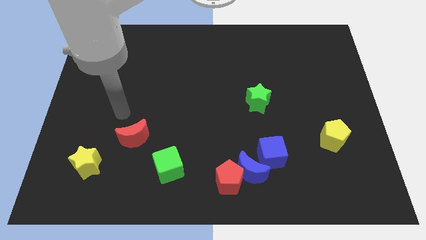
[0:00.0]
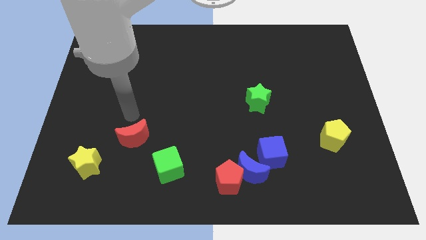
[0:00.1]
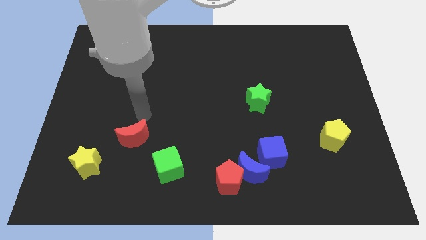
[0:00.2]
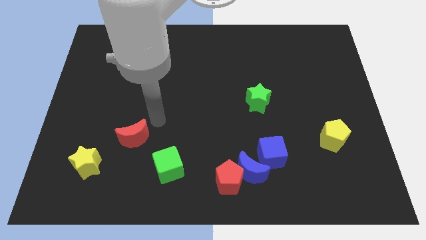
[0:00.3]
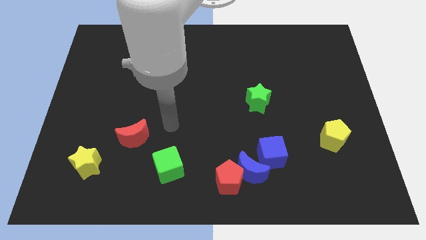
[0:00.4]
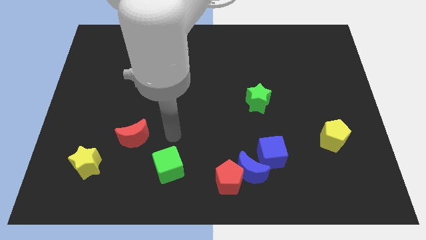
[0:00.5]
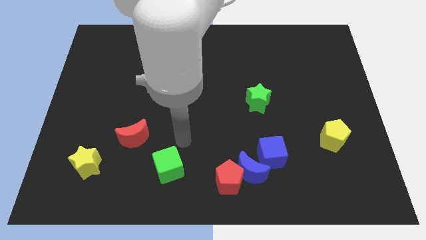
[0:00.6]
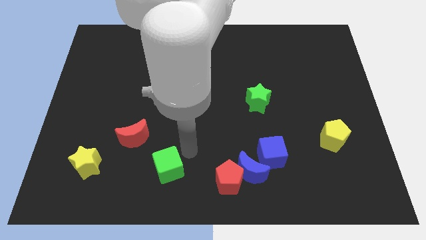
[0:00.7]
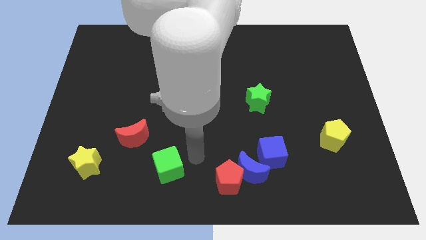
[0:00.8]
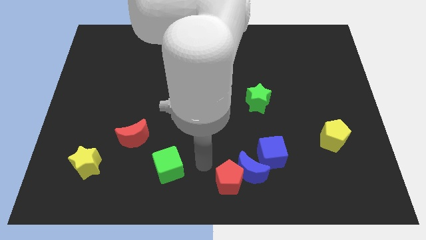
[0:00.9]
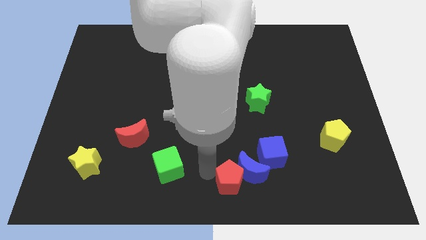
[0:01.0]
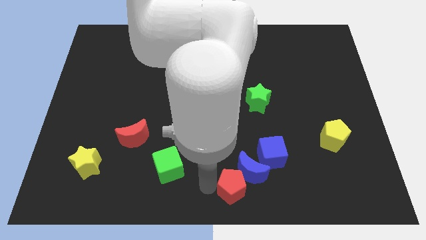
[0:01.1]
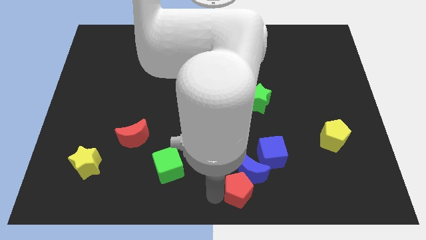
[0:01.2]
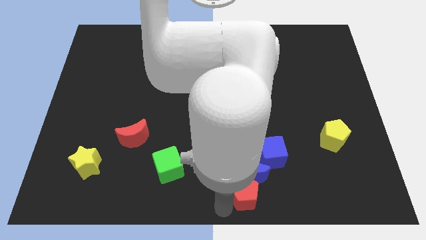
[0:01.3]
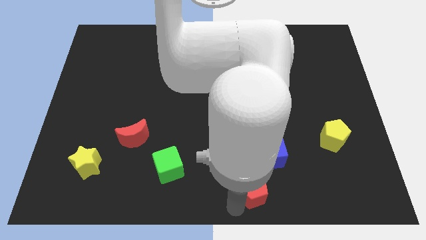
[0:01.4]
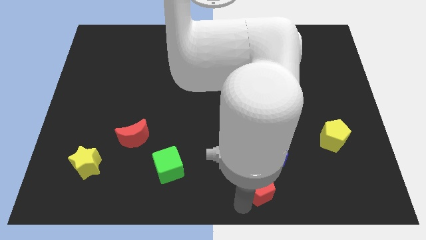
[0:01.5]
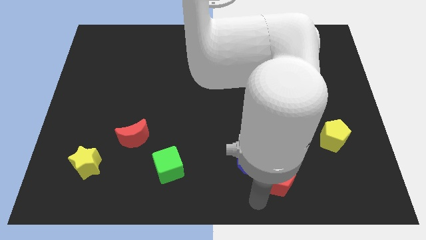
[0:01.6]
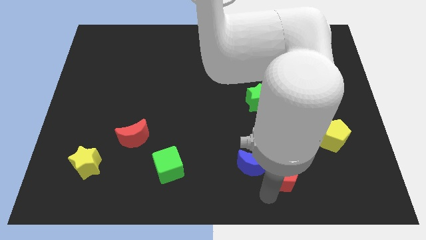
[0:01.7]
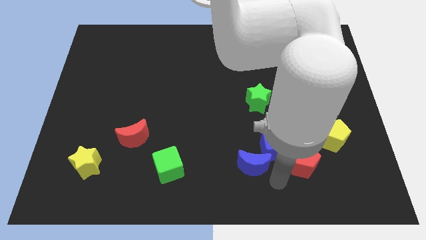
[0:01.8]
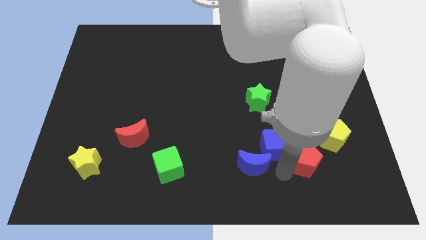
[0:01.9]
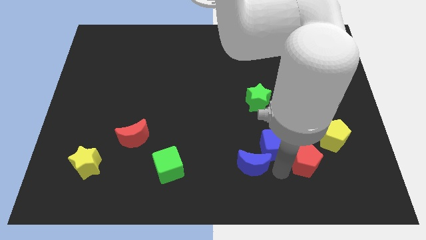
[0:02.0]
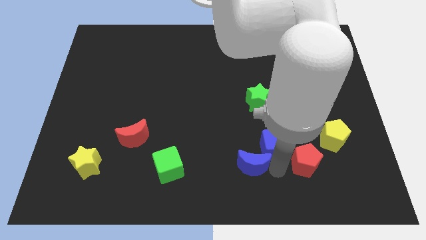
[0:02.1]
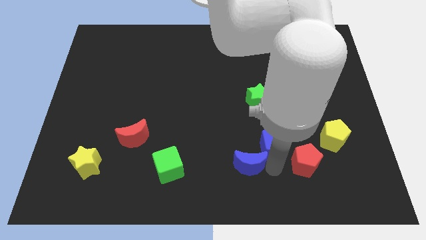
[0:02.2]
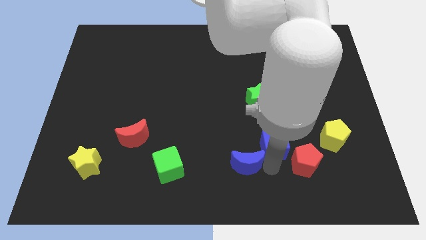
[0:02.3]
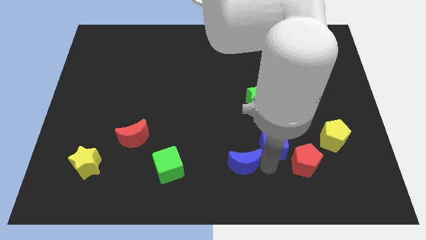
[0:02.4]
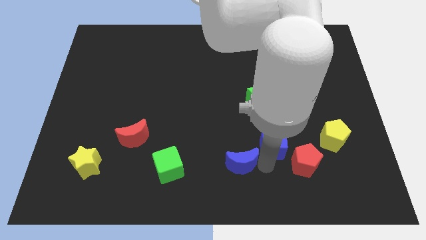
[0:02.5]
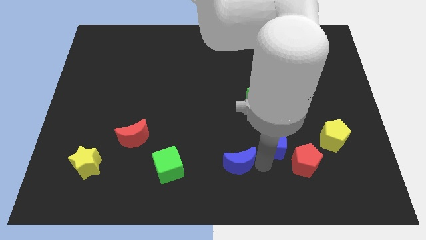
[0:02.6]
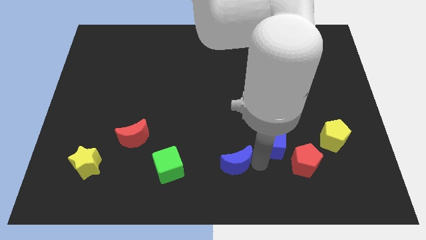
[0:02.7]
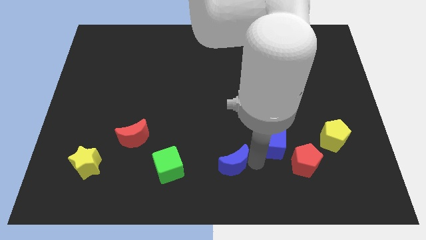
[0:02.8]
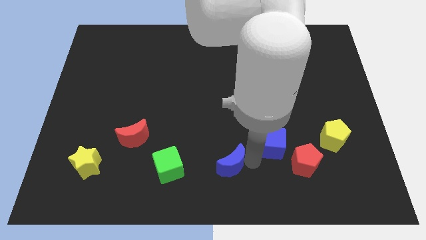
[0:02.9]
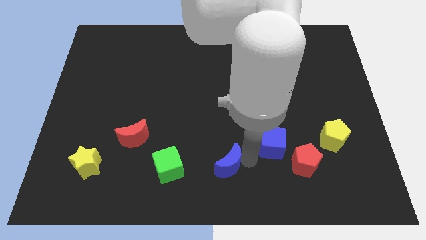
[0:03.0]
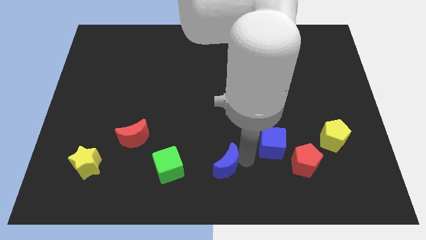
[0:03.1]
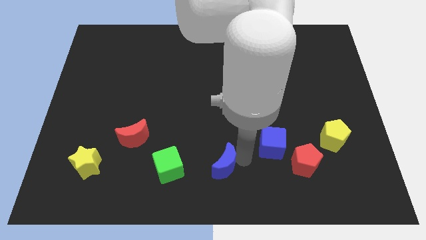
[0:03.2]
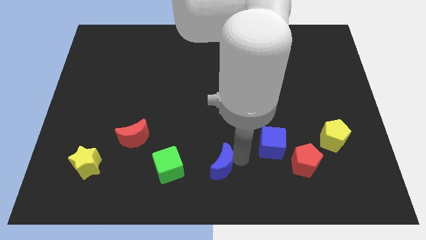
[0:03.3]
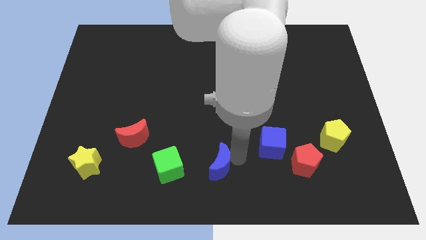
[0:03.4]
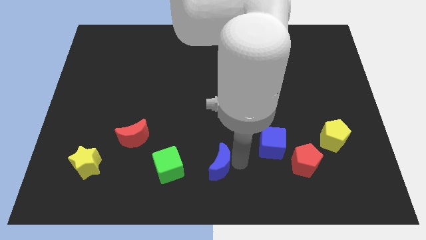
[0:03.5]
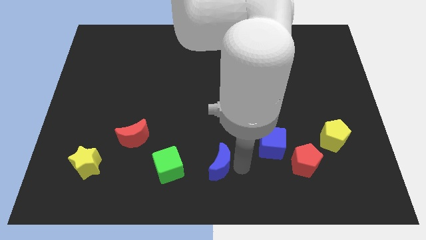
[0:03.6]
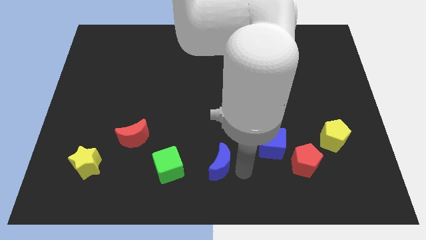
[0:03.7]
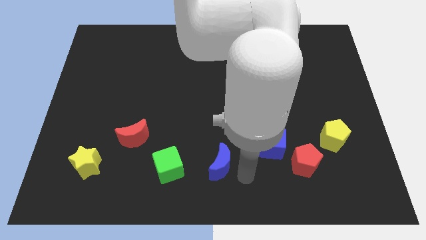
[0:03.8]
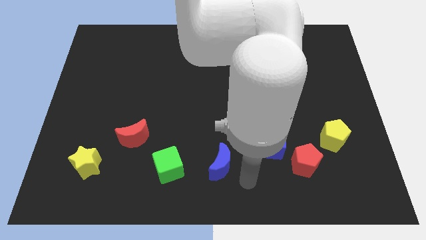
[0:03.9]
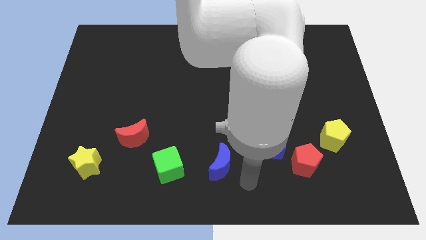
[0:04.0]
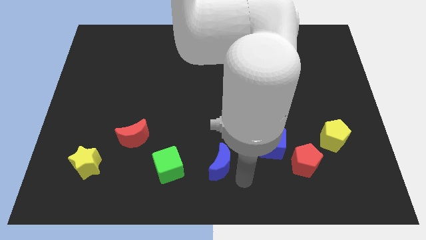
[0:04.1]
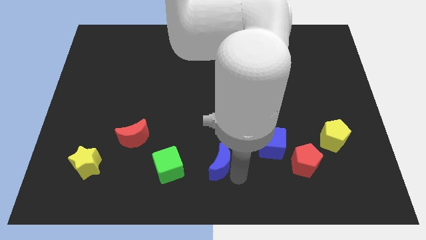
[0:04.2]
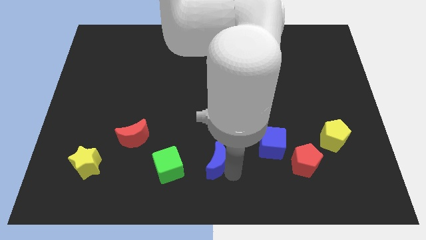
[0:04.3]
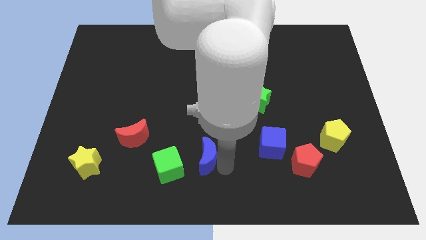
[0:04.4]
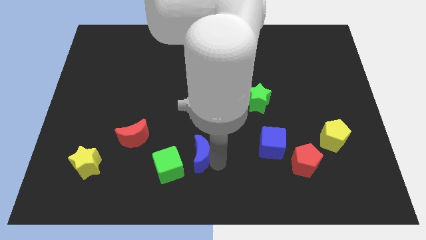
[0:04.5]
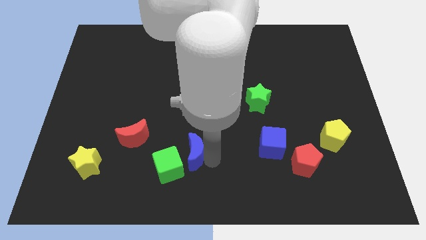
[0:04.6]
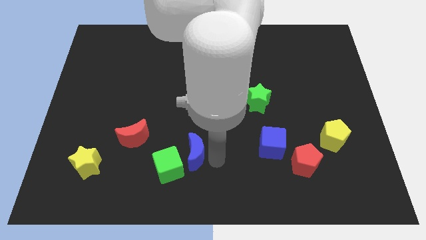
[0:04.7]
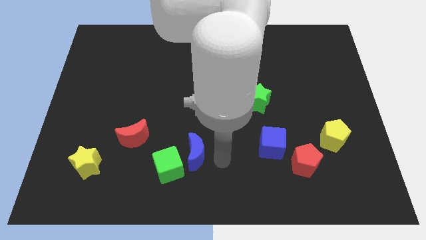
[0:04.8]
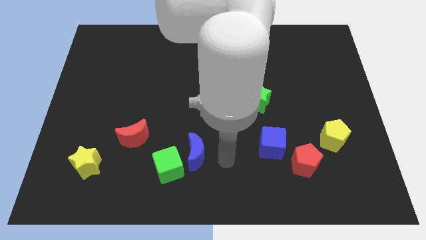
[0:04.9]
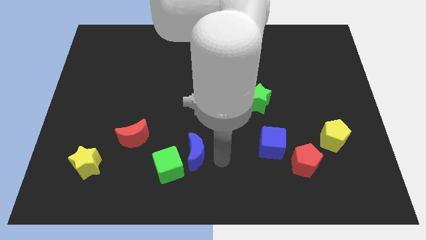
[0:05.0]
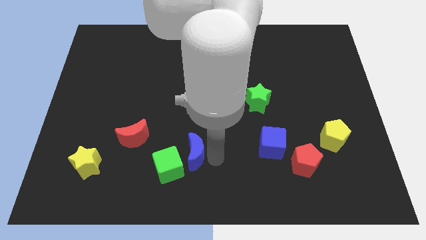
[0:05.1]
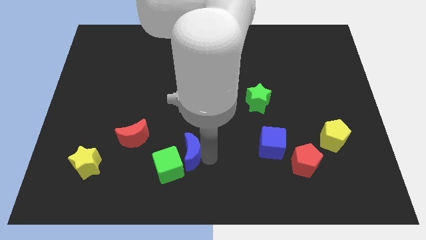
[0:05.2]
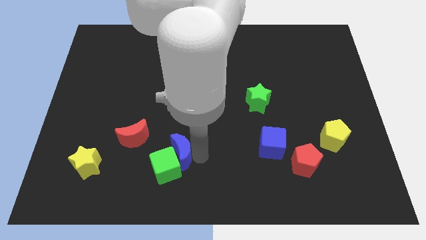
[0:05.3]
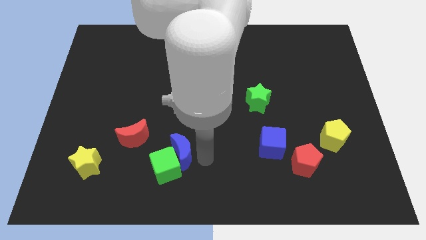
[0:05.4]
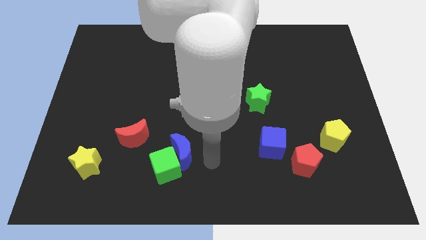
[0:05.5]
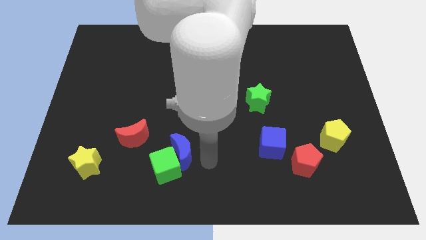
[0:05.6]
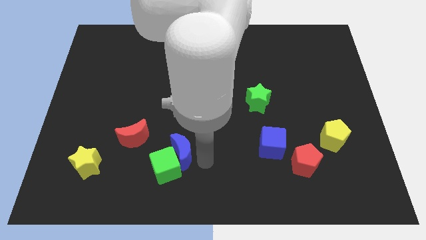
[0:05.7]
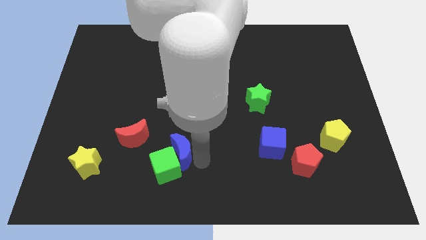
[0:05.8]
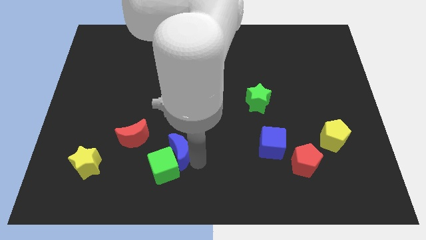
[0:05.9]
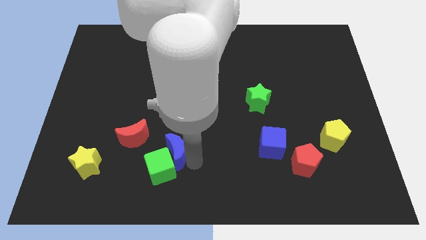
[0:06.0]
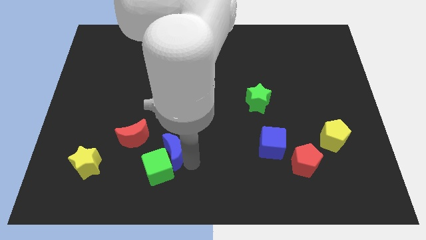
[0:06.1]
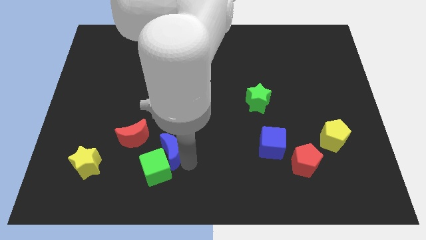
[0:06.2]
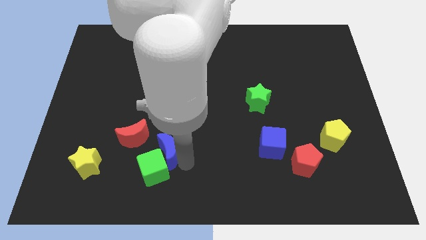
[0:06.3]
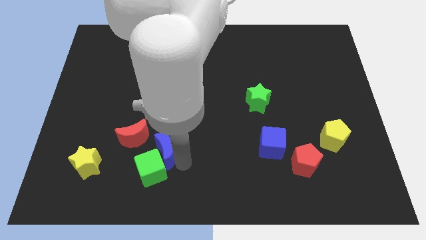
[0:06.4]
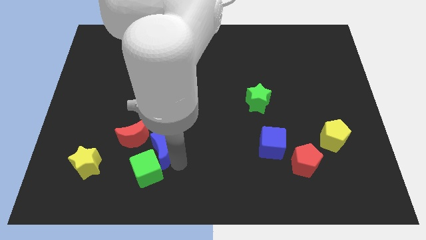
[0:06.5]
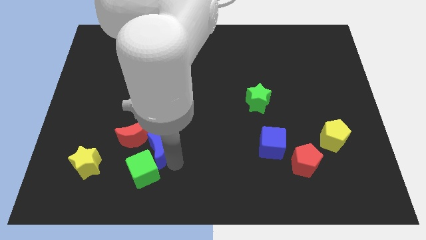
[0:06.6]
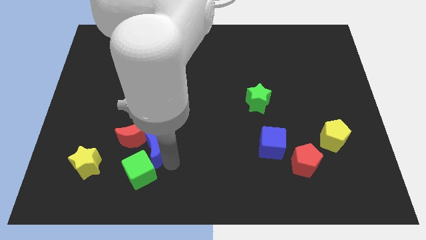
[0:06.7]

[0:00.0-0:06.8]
put the blue moon towards the red moon

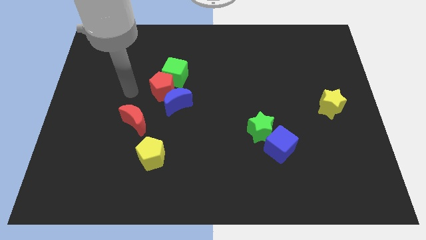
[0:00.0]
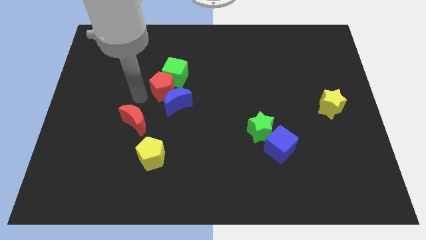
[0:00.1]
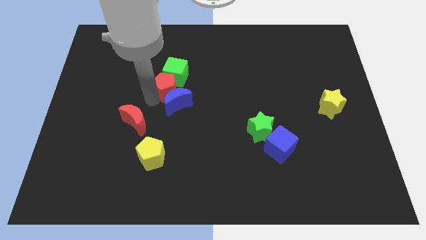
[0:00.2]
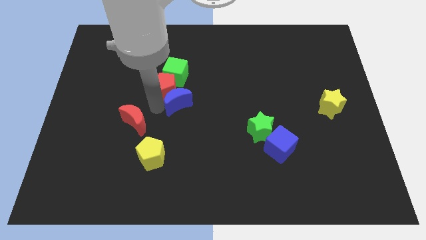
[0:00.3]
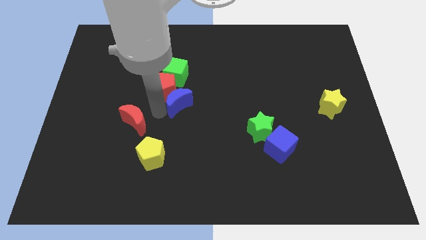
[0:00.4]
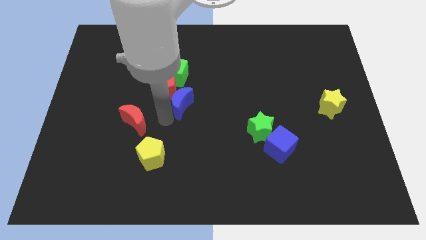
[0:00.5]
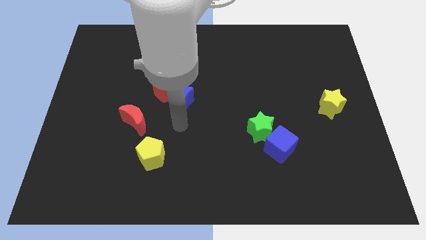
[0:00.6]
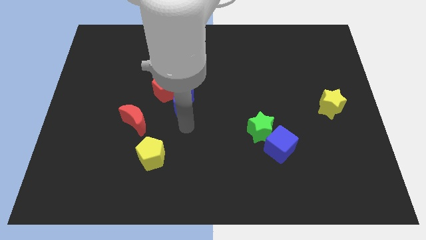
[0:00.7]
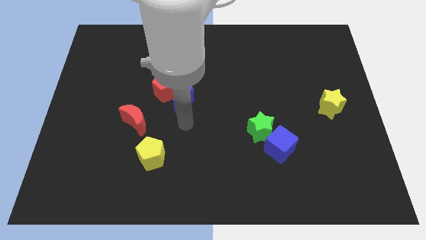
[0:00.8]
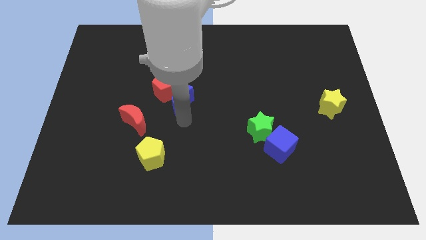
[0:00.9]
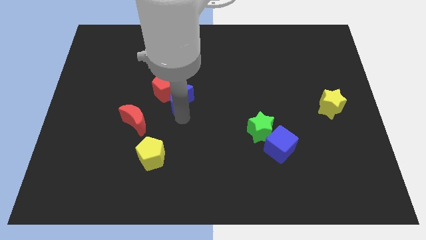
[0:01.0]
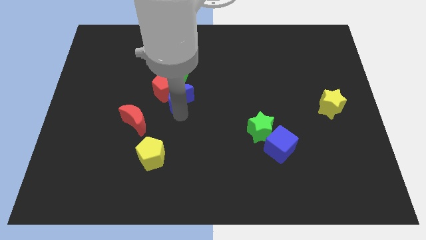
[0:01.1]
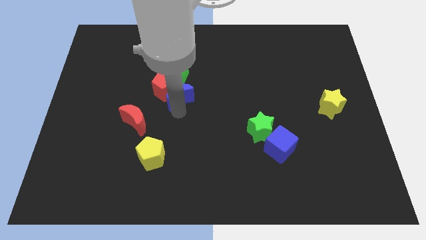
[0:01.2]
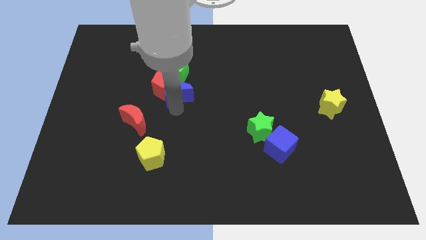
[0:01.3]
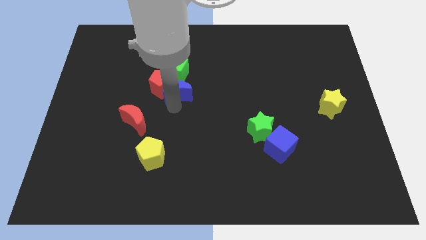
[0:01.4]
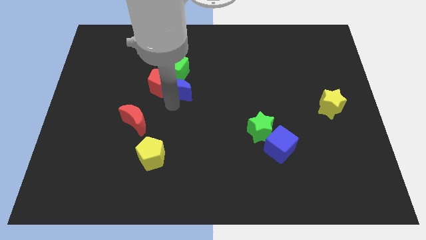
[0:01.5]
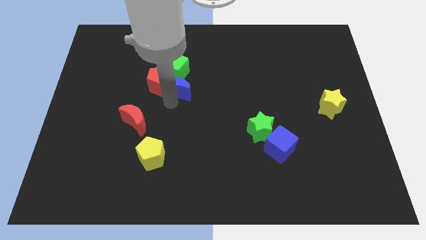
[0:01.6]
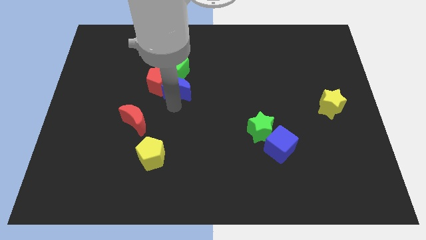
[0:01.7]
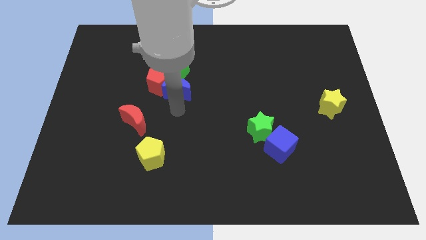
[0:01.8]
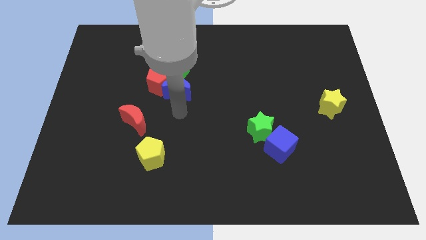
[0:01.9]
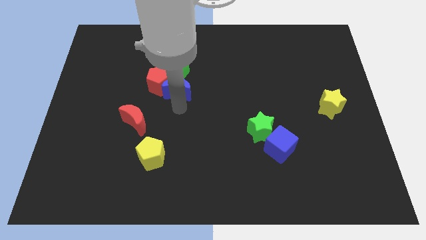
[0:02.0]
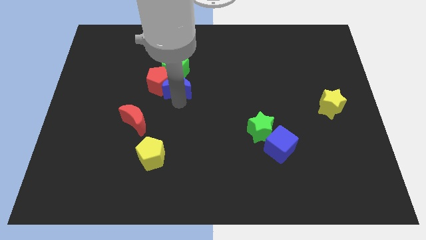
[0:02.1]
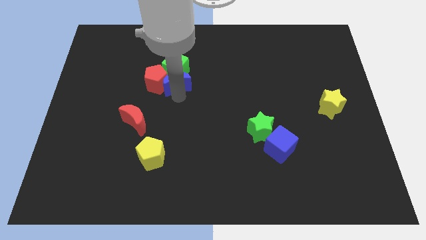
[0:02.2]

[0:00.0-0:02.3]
slide the blue moon close to the green cube
